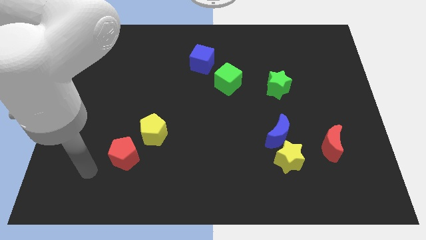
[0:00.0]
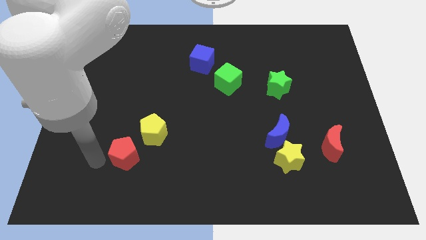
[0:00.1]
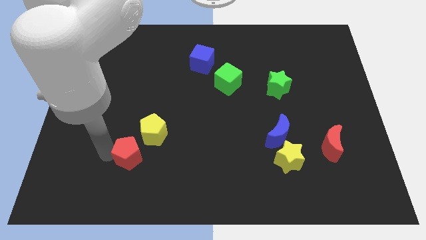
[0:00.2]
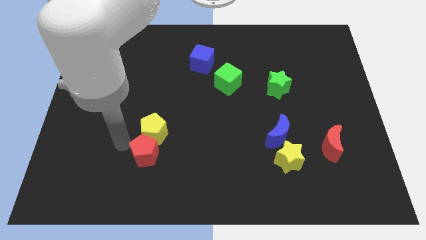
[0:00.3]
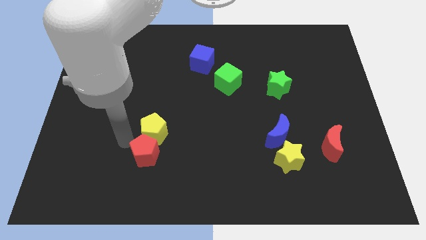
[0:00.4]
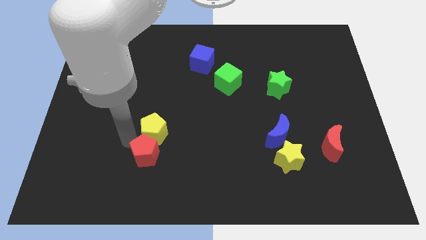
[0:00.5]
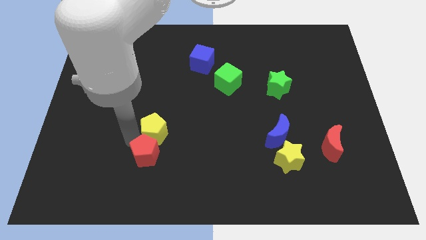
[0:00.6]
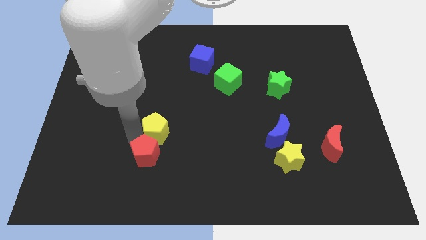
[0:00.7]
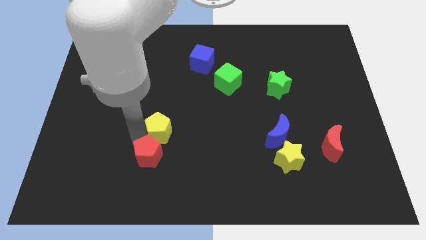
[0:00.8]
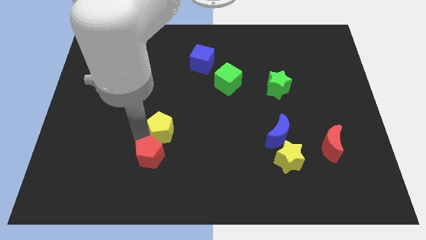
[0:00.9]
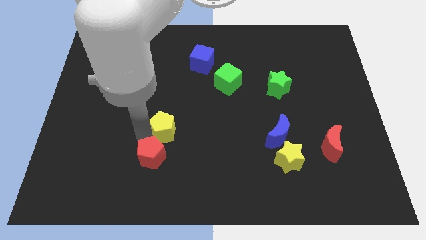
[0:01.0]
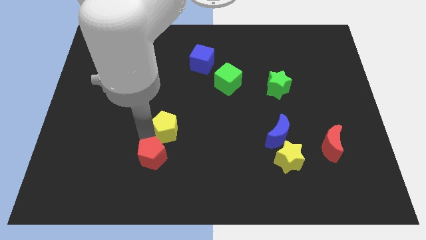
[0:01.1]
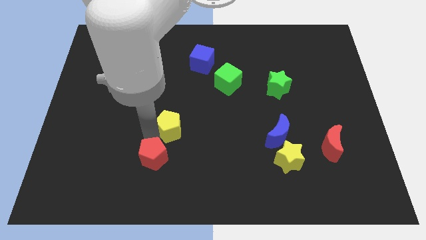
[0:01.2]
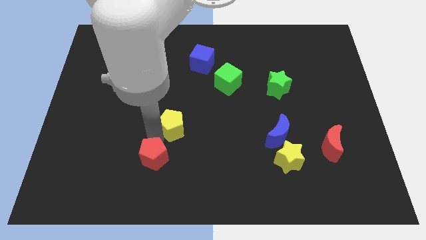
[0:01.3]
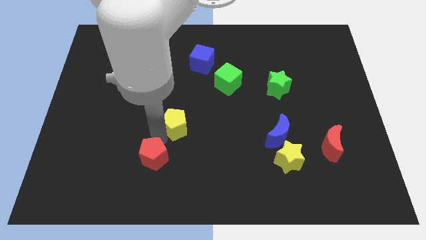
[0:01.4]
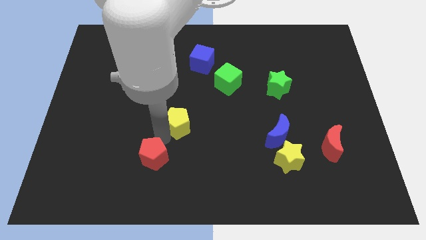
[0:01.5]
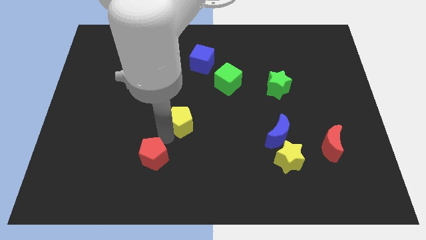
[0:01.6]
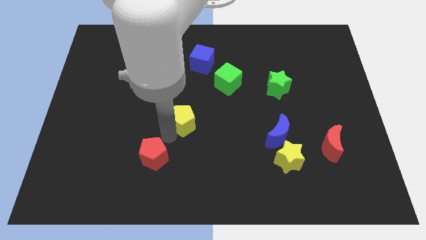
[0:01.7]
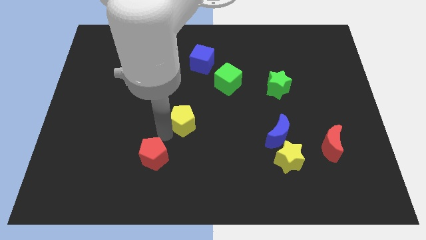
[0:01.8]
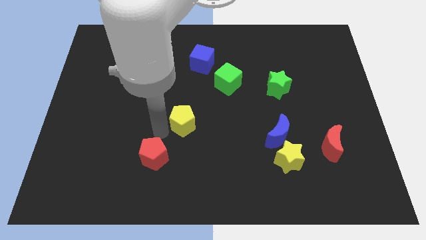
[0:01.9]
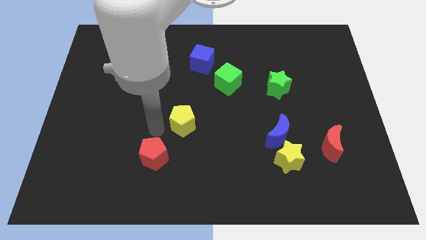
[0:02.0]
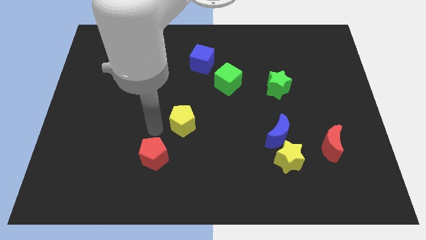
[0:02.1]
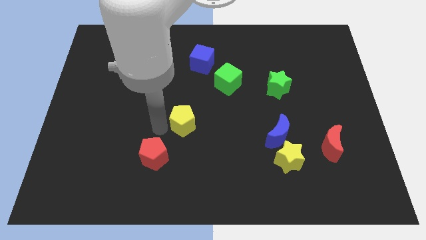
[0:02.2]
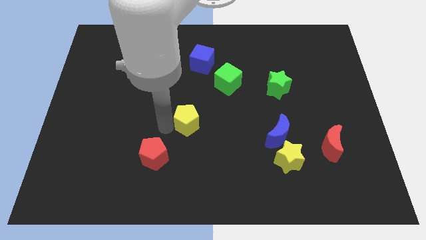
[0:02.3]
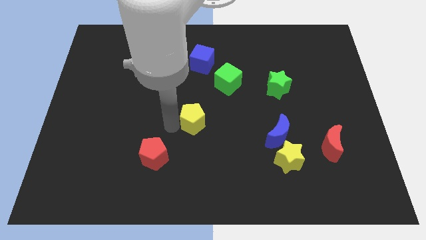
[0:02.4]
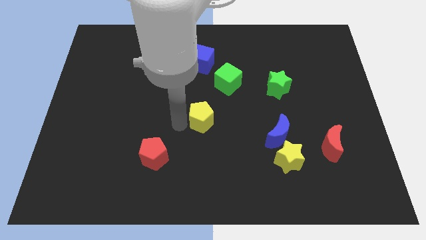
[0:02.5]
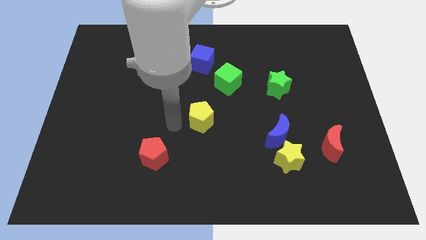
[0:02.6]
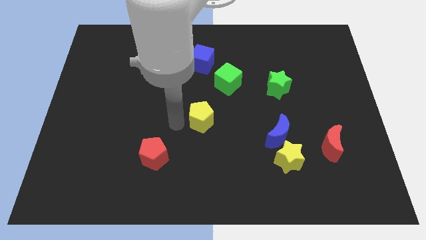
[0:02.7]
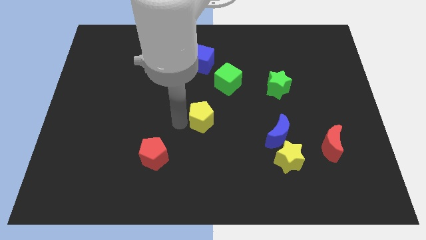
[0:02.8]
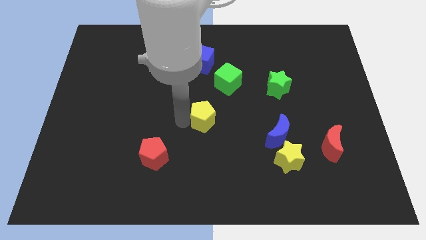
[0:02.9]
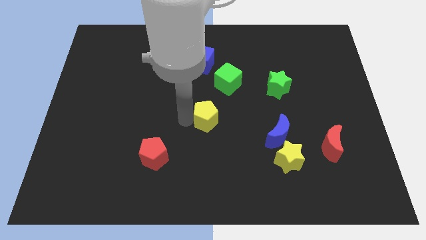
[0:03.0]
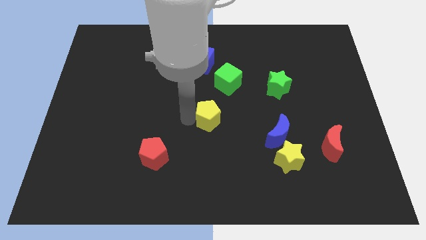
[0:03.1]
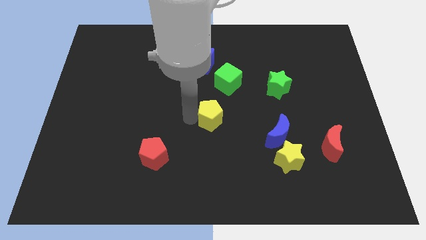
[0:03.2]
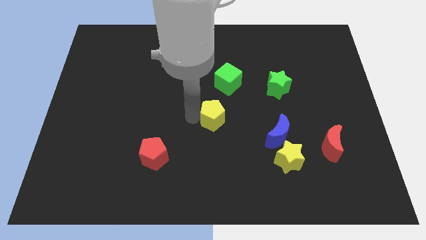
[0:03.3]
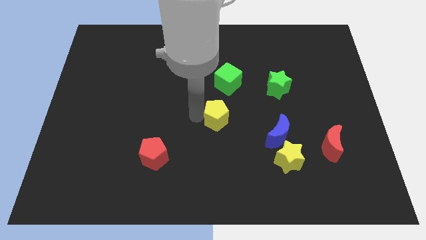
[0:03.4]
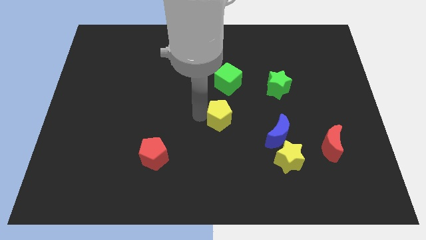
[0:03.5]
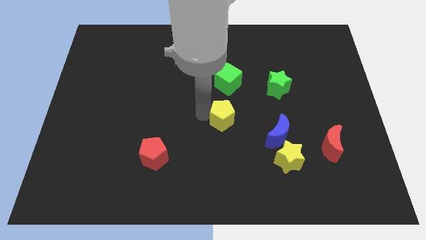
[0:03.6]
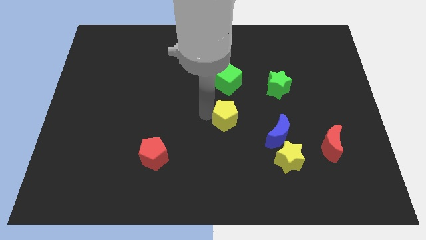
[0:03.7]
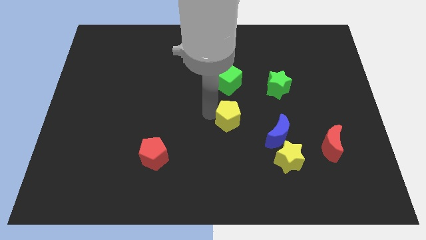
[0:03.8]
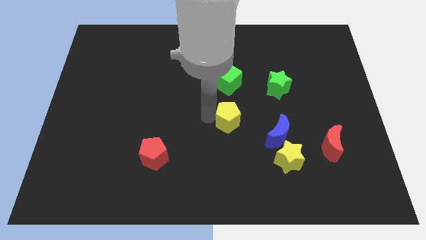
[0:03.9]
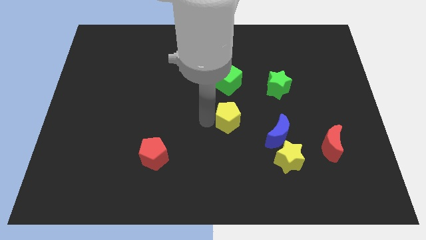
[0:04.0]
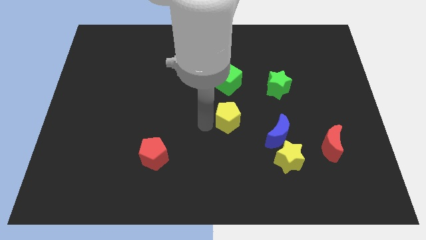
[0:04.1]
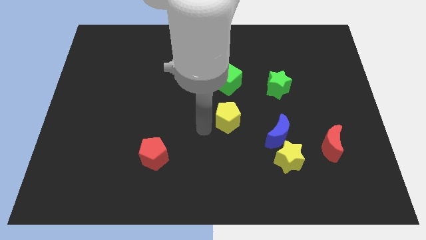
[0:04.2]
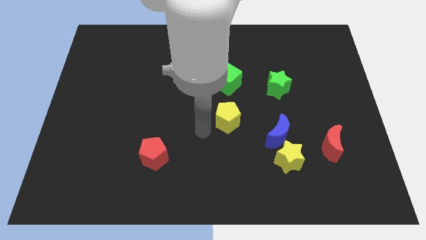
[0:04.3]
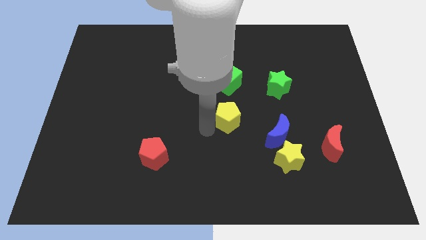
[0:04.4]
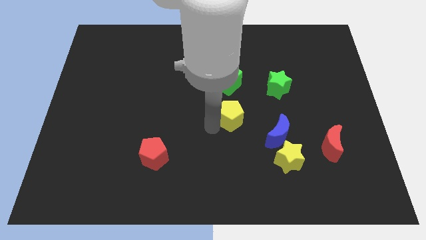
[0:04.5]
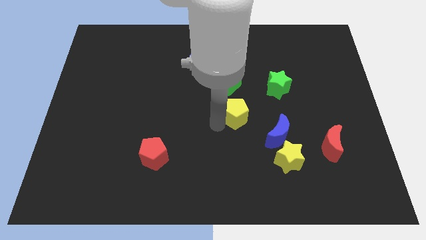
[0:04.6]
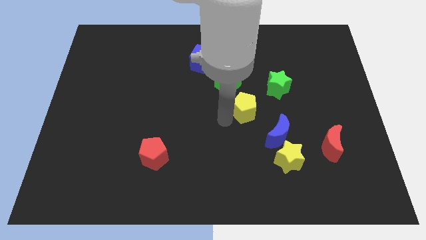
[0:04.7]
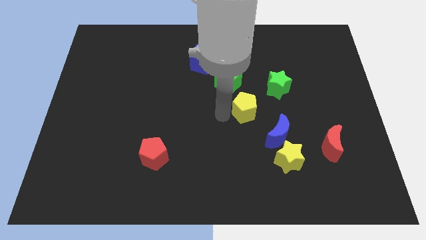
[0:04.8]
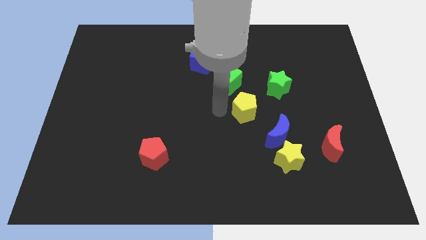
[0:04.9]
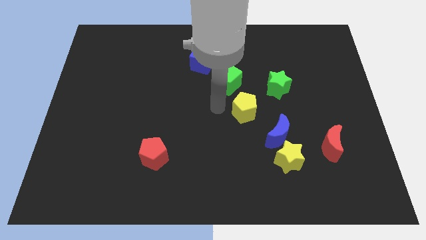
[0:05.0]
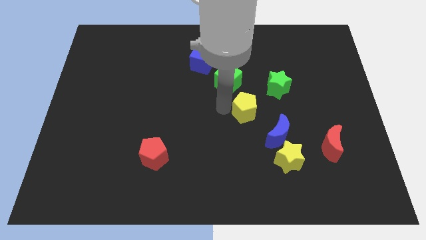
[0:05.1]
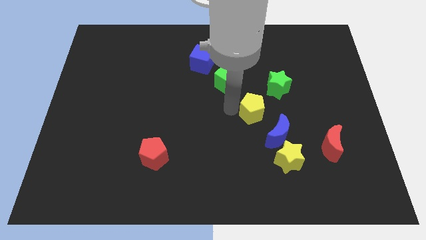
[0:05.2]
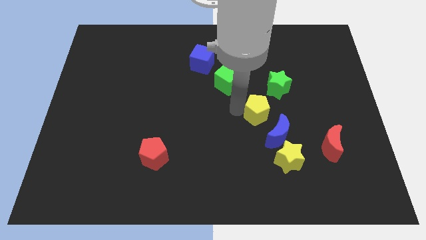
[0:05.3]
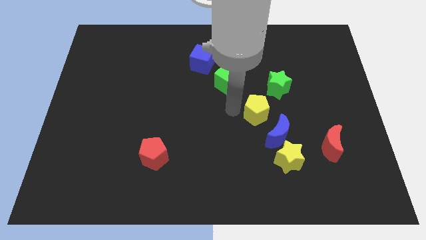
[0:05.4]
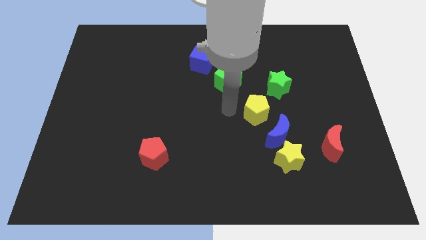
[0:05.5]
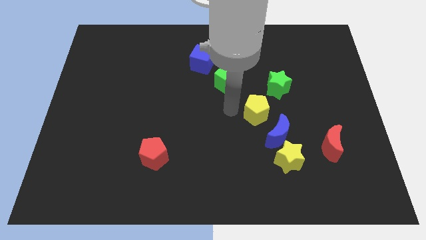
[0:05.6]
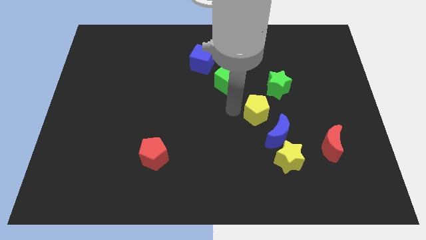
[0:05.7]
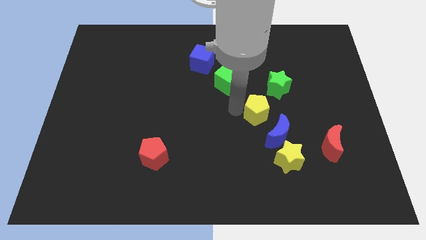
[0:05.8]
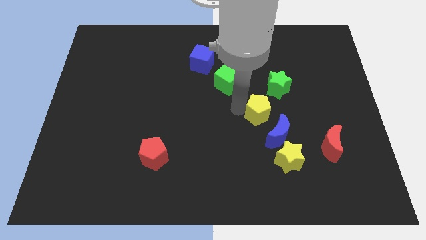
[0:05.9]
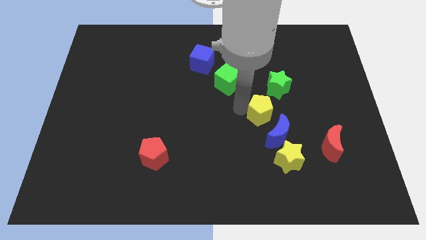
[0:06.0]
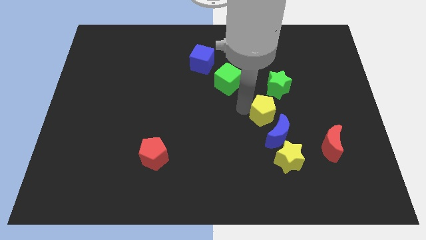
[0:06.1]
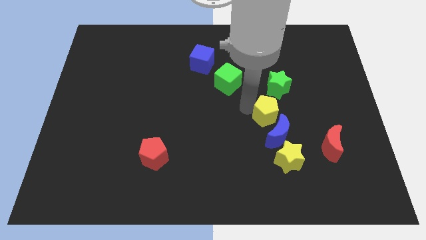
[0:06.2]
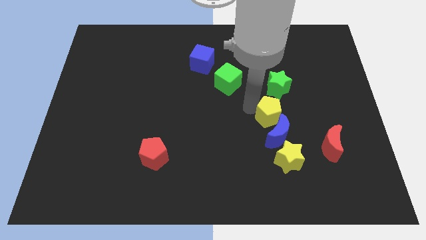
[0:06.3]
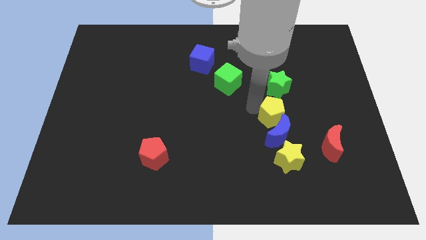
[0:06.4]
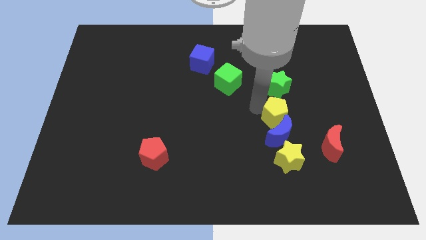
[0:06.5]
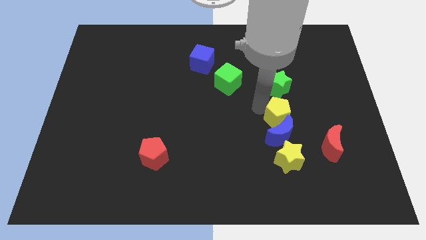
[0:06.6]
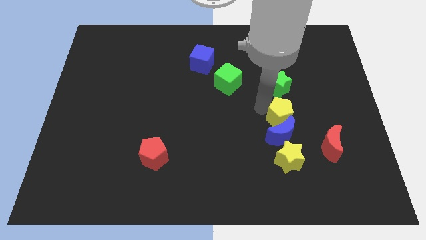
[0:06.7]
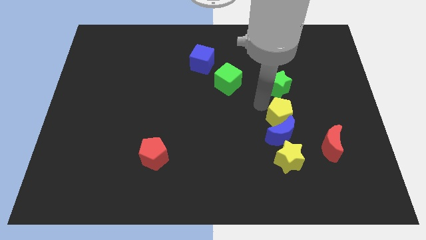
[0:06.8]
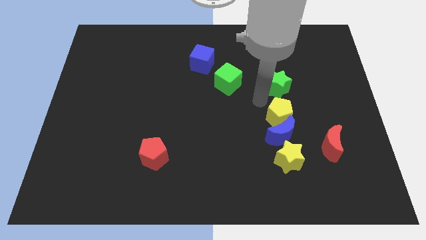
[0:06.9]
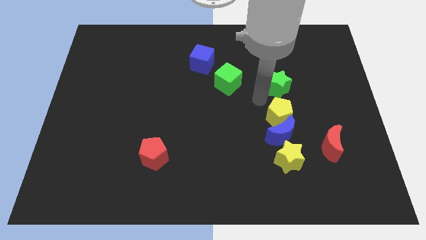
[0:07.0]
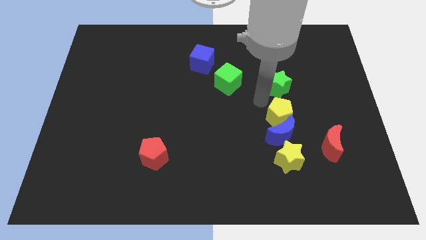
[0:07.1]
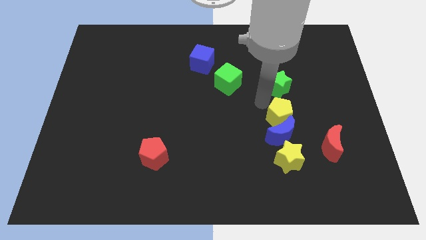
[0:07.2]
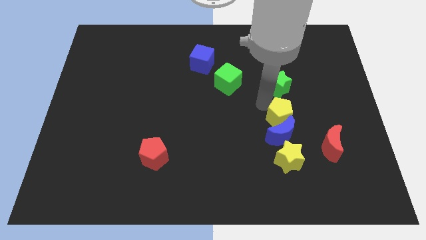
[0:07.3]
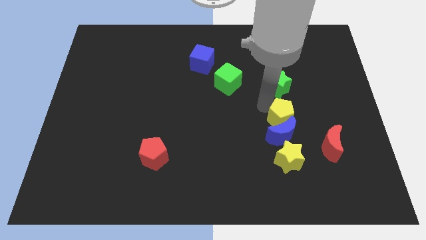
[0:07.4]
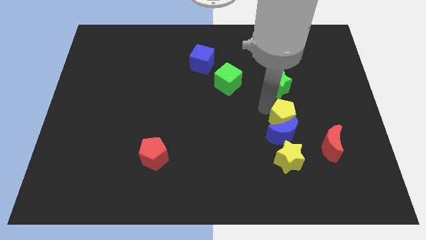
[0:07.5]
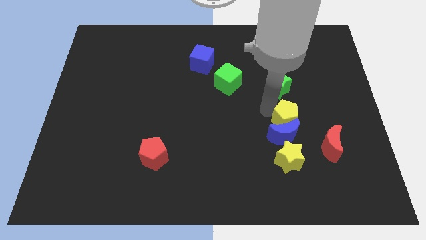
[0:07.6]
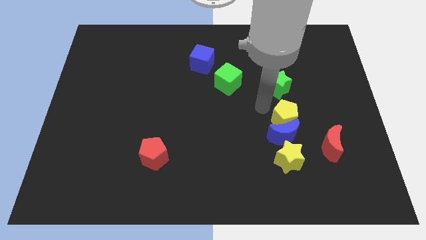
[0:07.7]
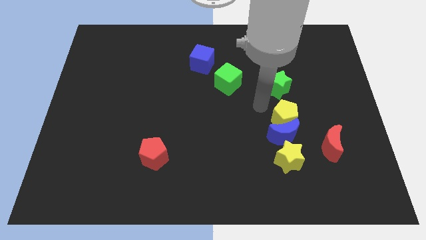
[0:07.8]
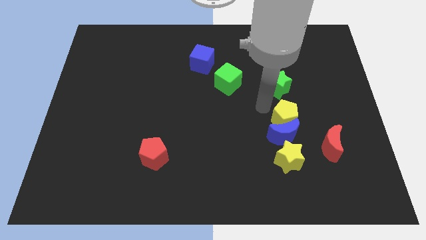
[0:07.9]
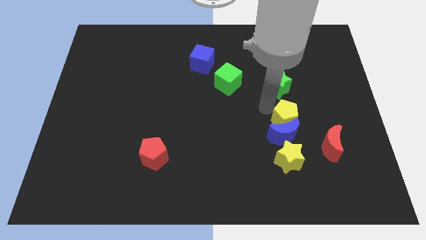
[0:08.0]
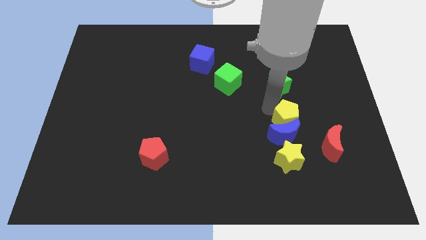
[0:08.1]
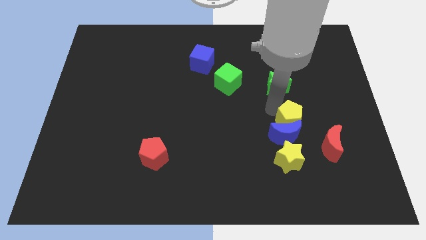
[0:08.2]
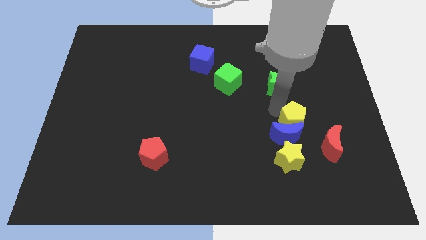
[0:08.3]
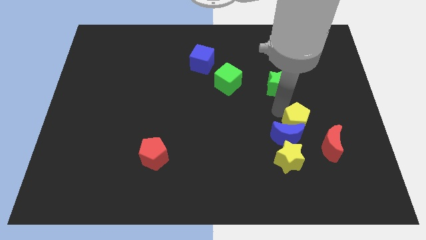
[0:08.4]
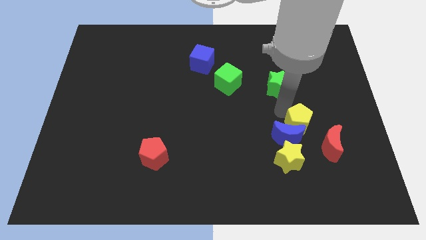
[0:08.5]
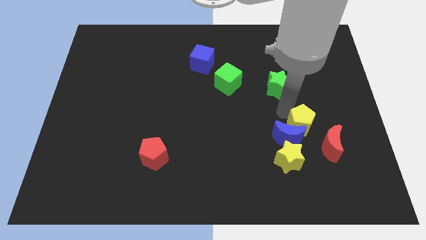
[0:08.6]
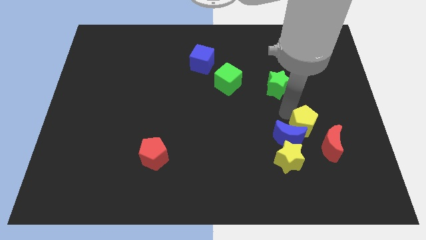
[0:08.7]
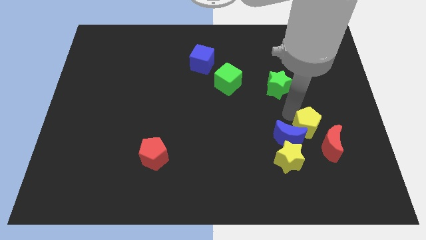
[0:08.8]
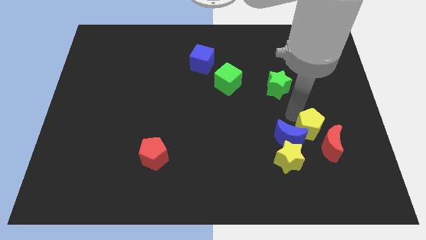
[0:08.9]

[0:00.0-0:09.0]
move the yellow pentagon next to the red moon
